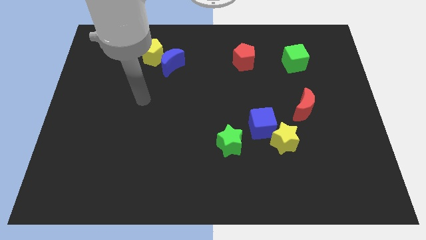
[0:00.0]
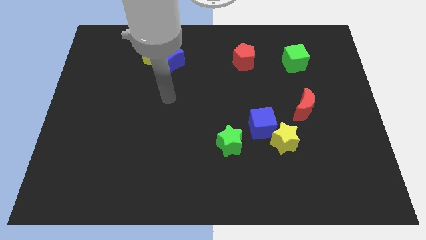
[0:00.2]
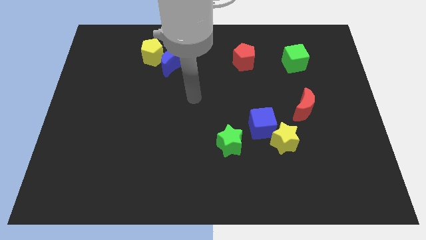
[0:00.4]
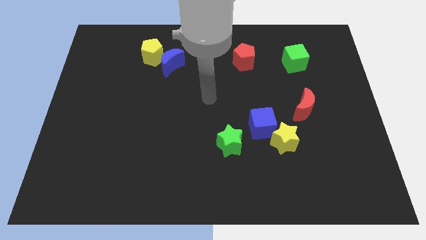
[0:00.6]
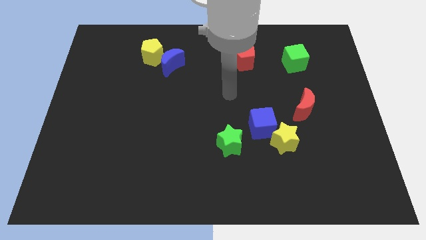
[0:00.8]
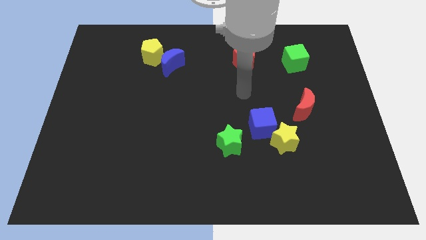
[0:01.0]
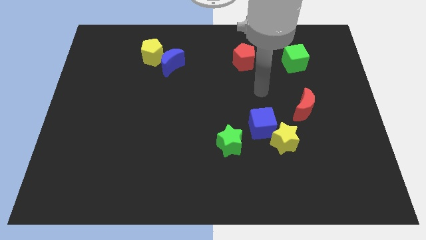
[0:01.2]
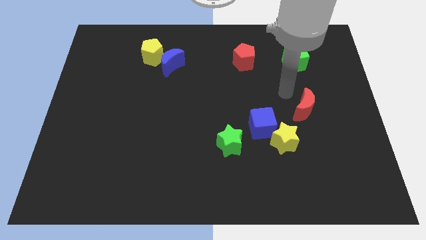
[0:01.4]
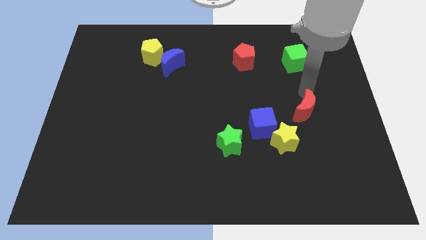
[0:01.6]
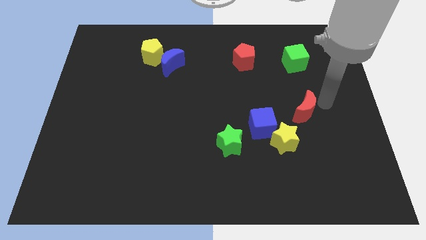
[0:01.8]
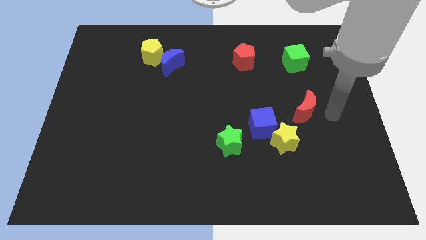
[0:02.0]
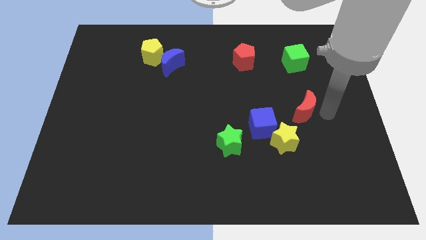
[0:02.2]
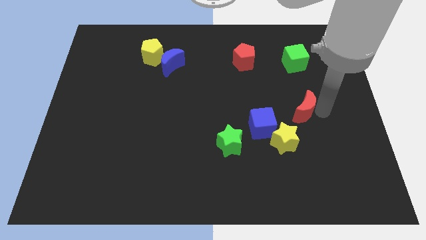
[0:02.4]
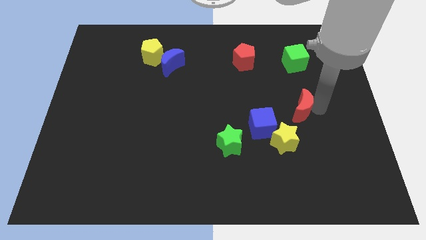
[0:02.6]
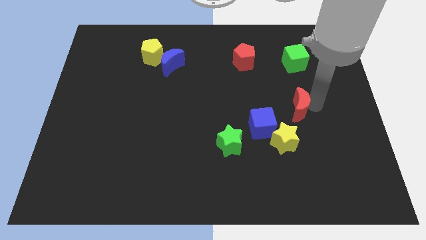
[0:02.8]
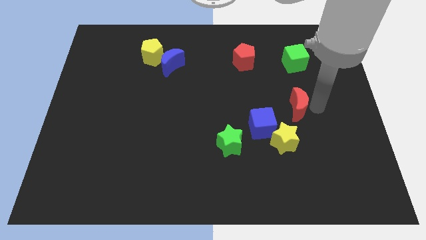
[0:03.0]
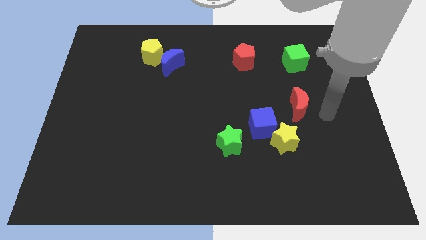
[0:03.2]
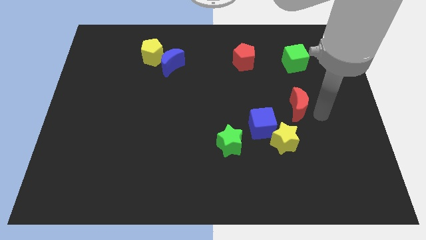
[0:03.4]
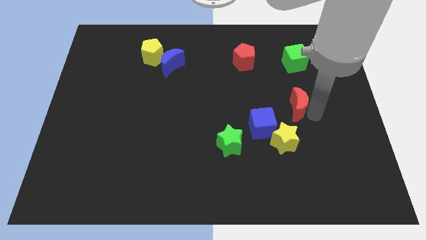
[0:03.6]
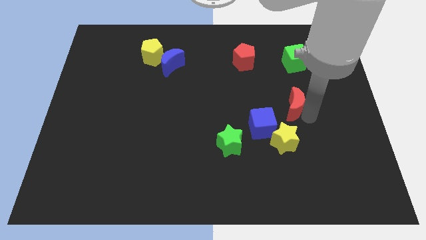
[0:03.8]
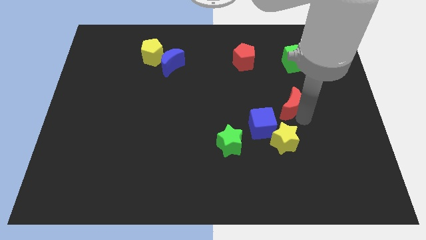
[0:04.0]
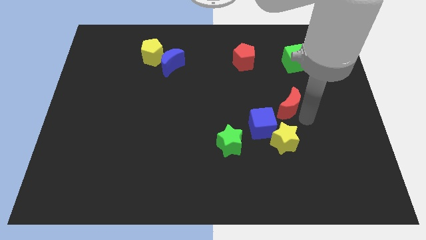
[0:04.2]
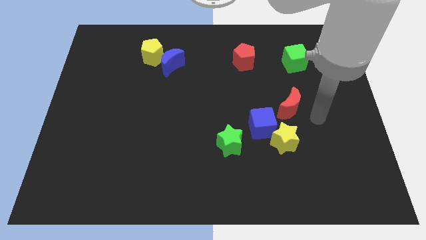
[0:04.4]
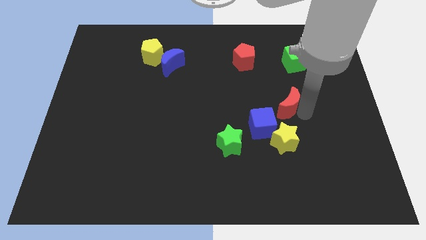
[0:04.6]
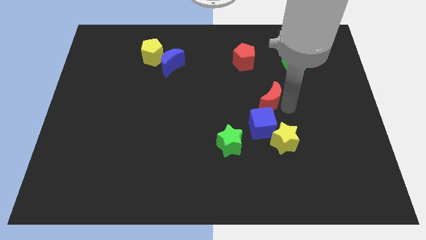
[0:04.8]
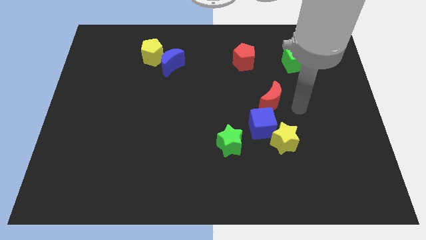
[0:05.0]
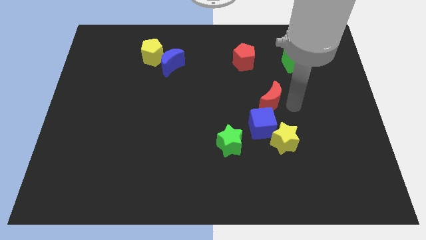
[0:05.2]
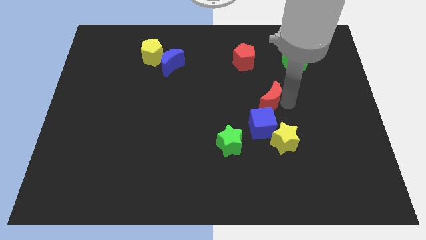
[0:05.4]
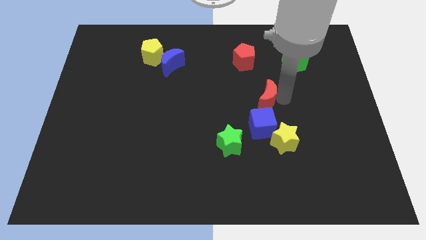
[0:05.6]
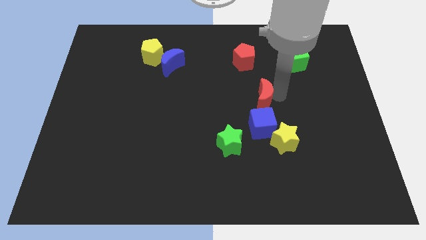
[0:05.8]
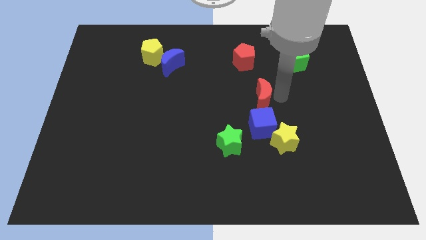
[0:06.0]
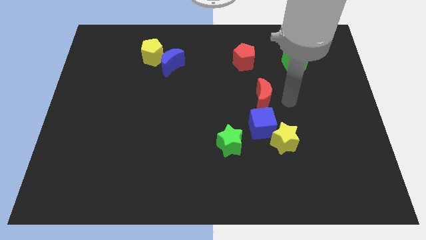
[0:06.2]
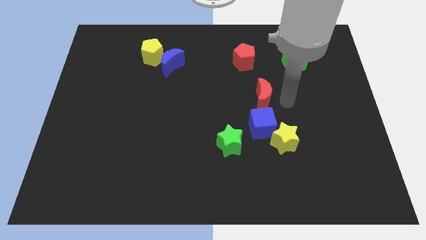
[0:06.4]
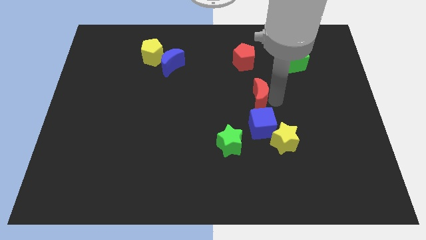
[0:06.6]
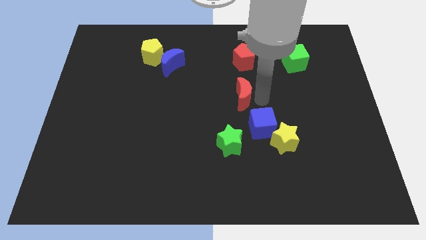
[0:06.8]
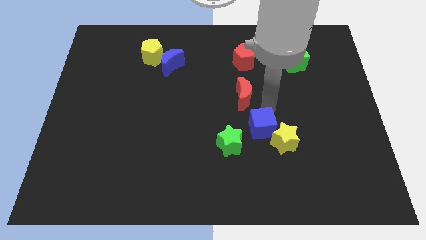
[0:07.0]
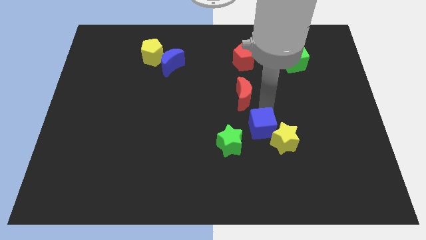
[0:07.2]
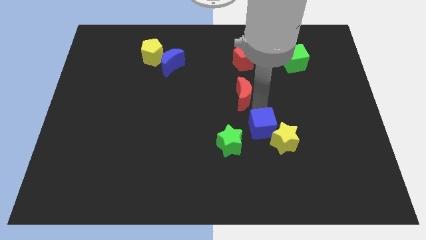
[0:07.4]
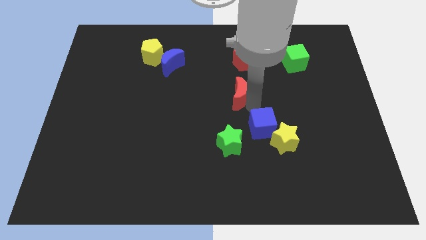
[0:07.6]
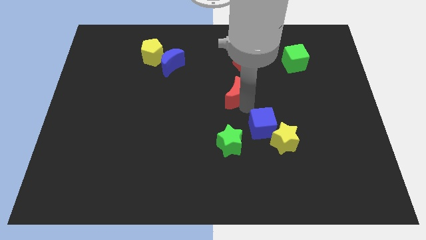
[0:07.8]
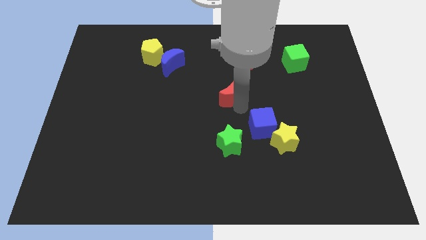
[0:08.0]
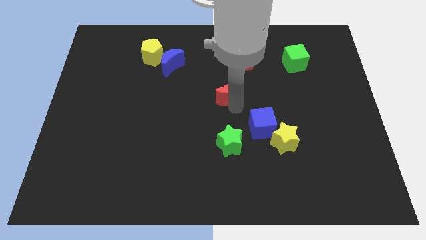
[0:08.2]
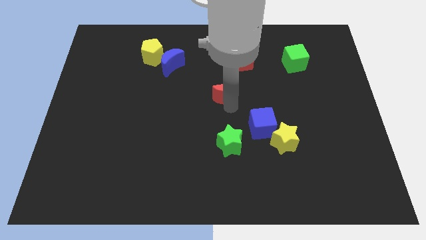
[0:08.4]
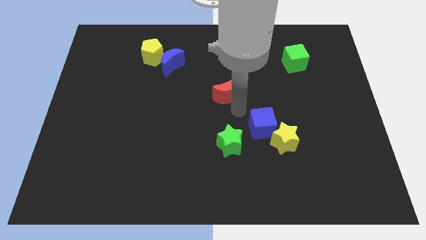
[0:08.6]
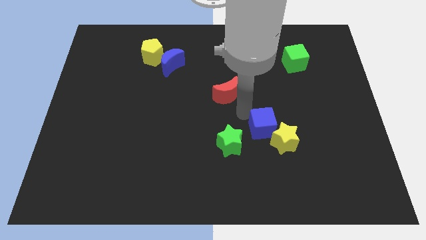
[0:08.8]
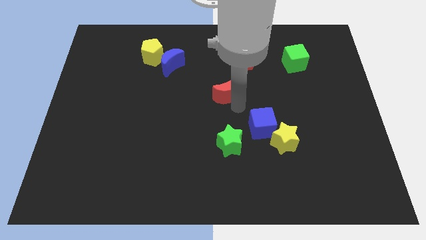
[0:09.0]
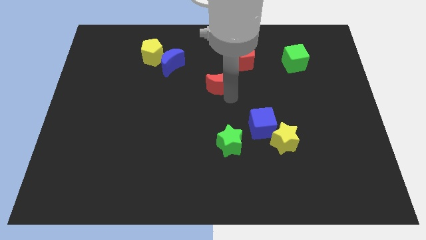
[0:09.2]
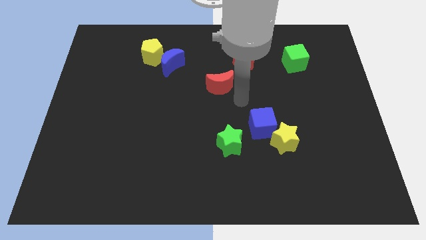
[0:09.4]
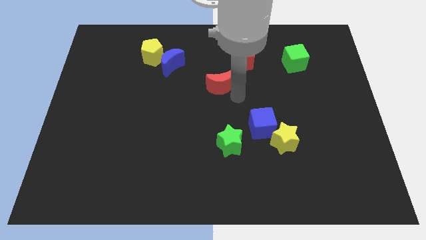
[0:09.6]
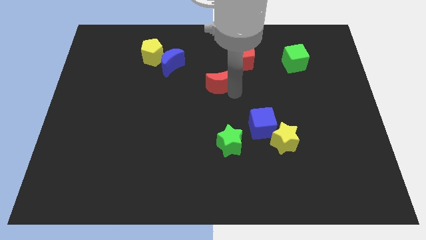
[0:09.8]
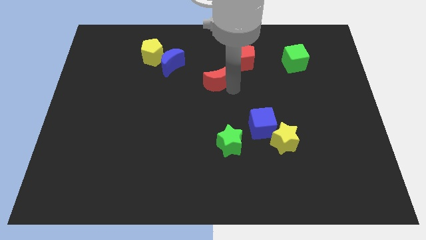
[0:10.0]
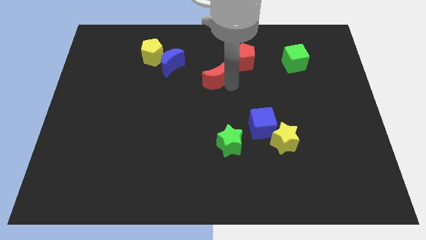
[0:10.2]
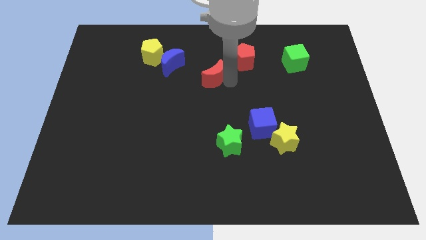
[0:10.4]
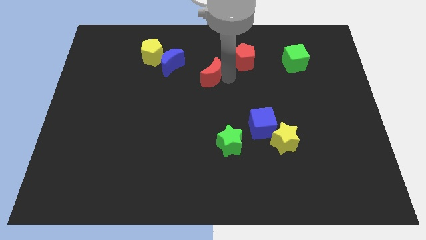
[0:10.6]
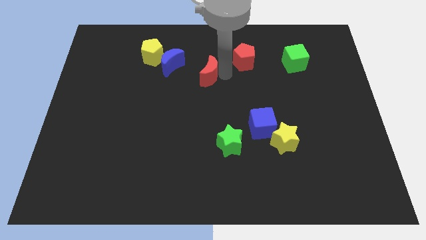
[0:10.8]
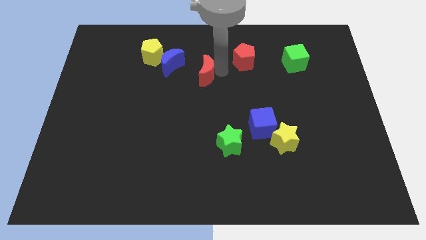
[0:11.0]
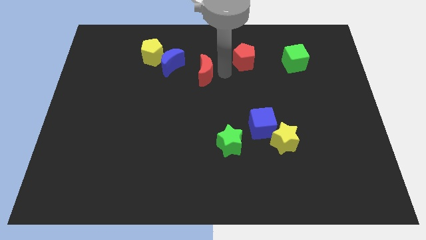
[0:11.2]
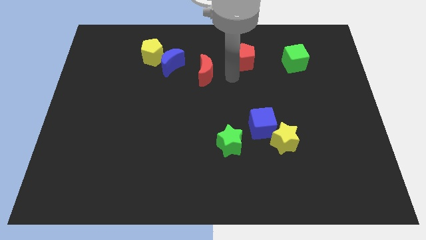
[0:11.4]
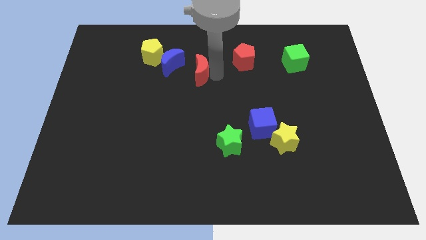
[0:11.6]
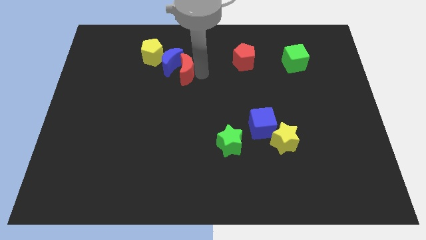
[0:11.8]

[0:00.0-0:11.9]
push the red moon to the bottom right side of the yellow pentagon

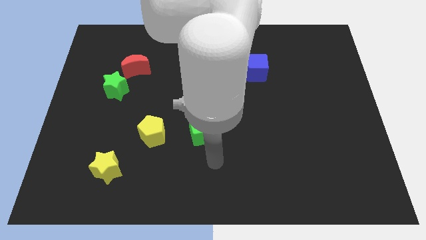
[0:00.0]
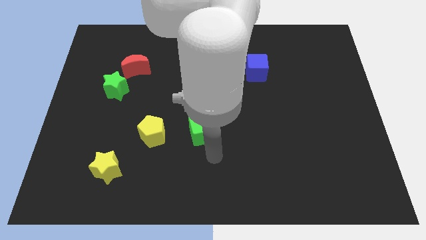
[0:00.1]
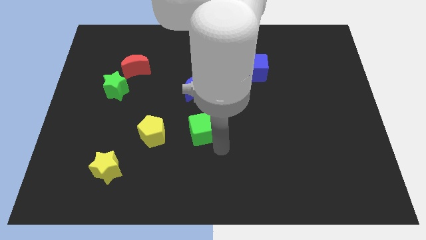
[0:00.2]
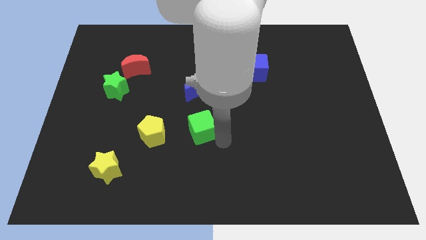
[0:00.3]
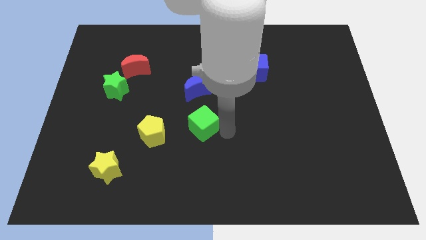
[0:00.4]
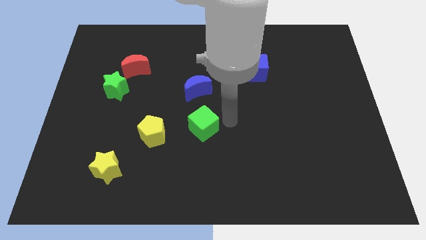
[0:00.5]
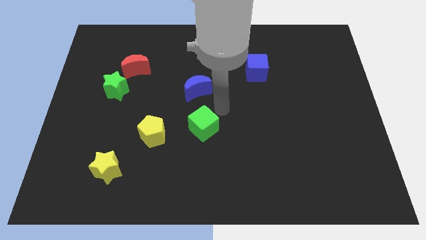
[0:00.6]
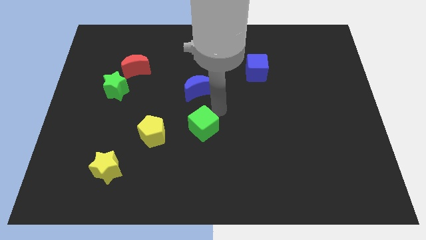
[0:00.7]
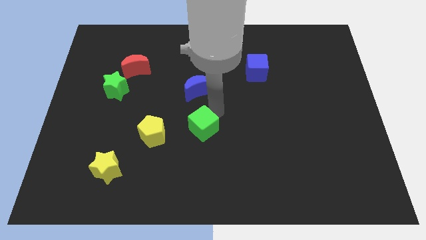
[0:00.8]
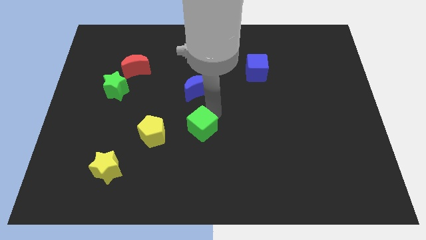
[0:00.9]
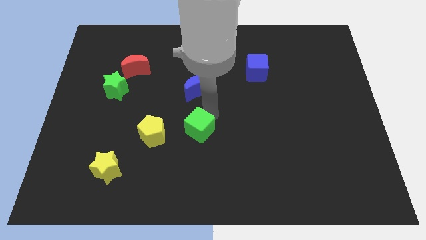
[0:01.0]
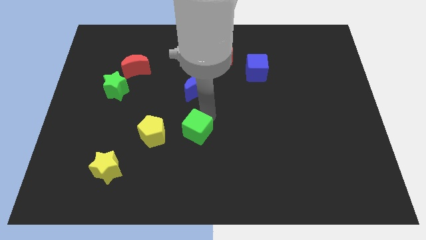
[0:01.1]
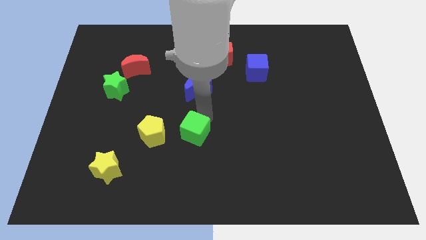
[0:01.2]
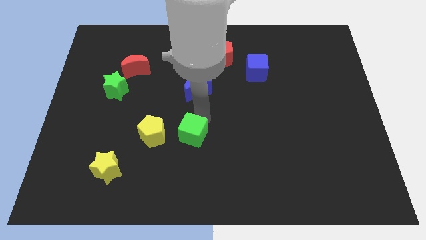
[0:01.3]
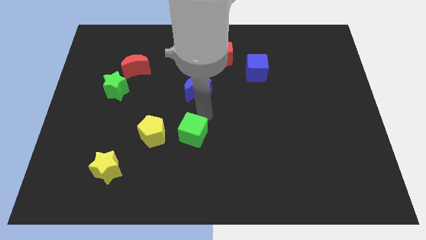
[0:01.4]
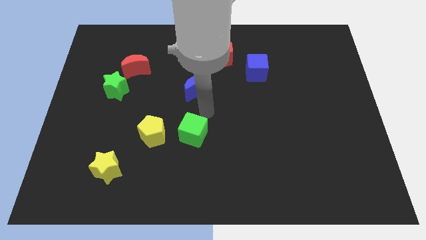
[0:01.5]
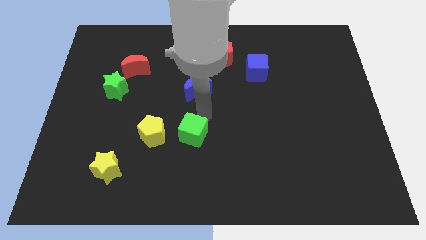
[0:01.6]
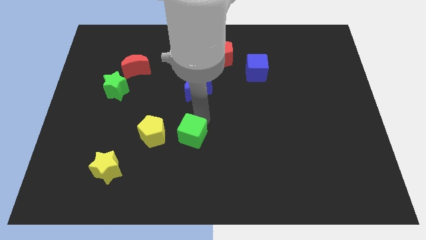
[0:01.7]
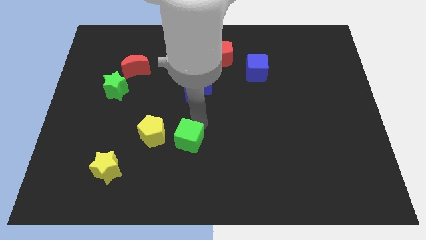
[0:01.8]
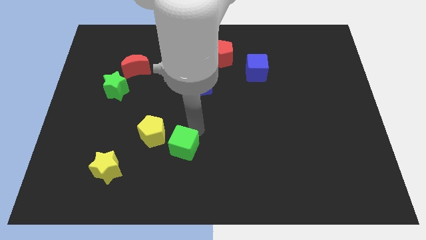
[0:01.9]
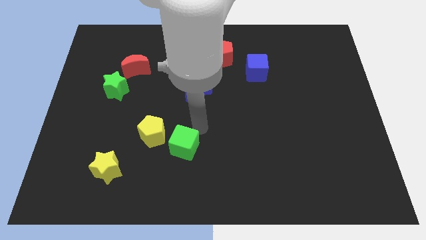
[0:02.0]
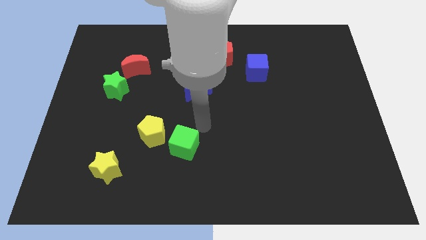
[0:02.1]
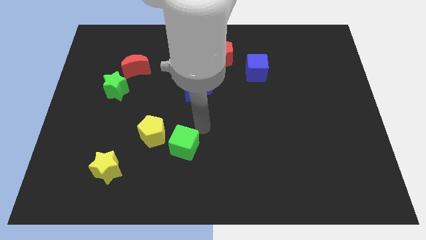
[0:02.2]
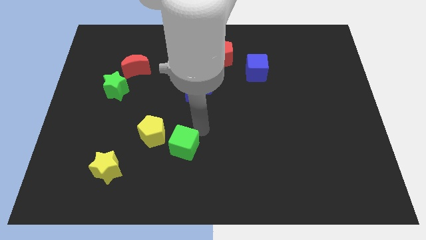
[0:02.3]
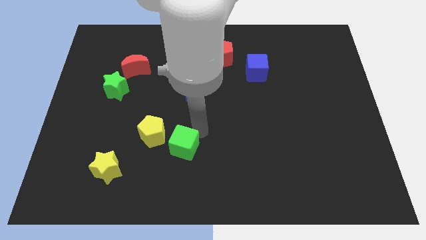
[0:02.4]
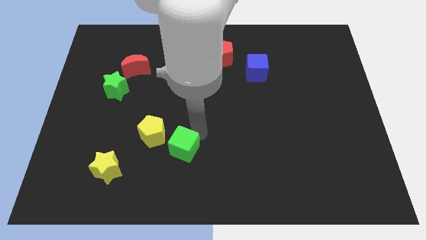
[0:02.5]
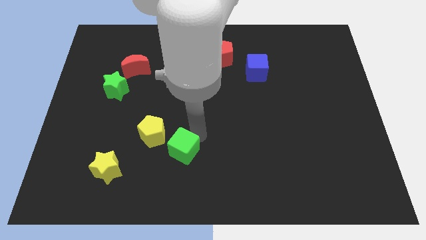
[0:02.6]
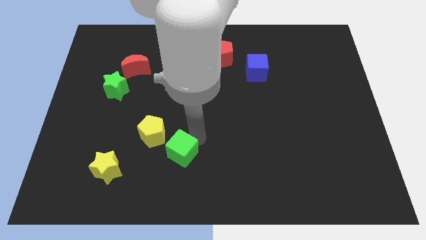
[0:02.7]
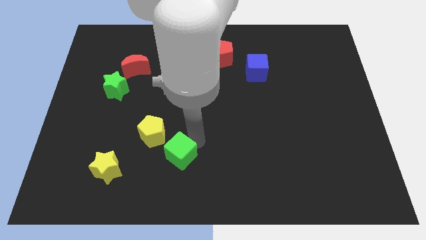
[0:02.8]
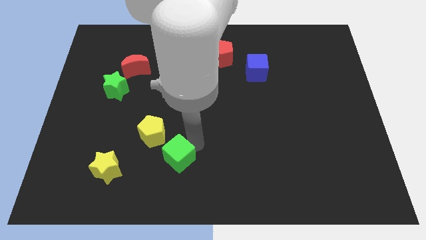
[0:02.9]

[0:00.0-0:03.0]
put the green cube just right of the yellow star
